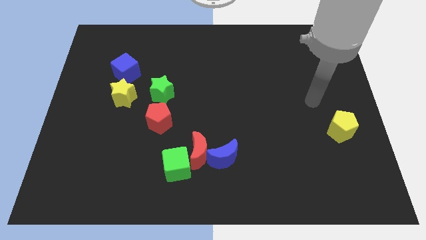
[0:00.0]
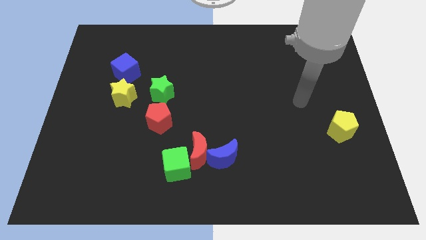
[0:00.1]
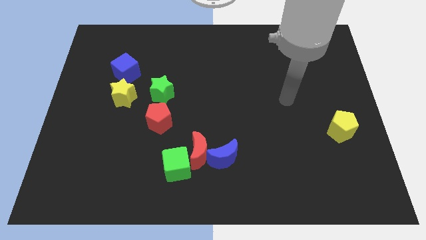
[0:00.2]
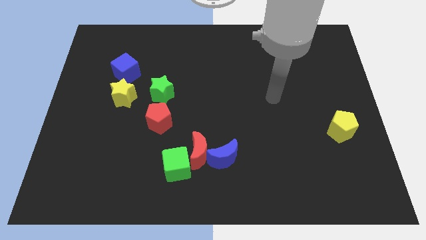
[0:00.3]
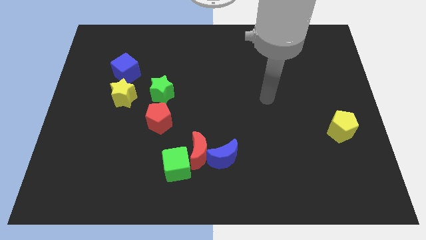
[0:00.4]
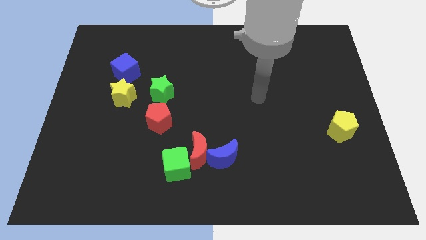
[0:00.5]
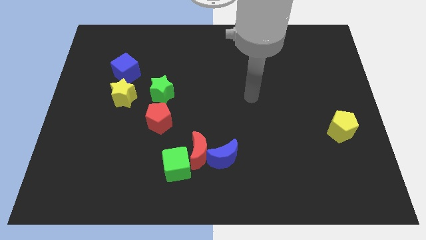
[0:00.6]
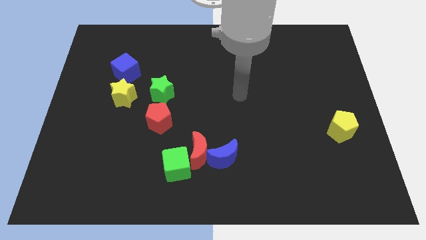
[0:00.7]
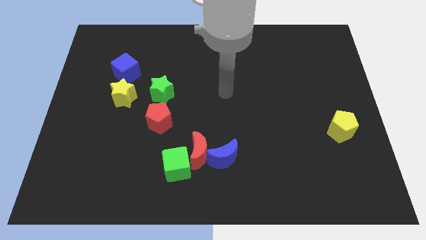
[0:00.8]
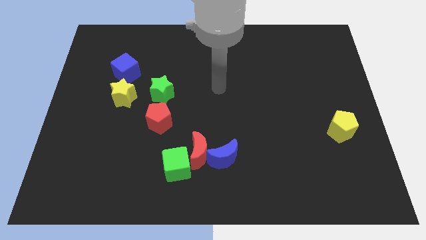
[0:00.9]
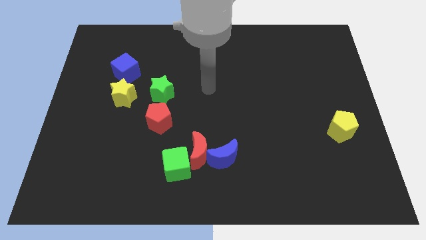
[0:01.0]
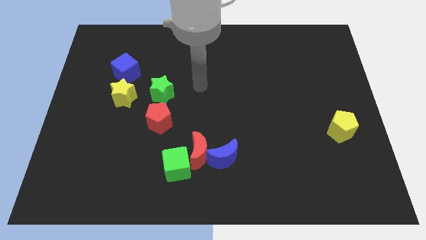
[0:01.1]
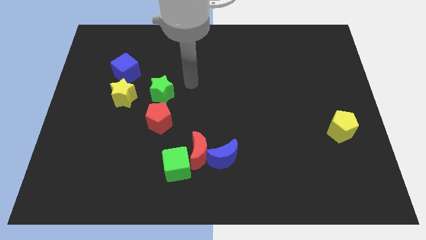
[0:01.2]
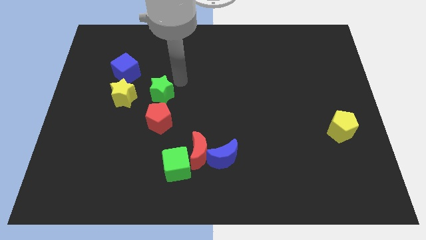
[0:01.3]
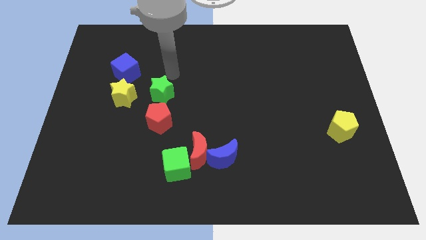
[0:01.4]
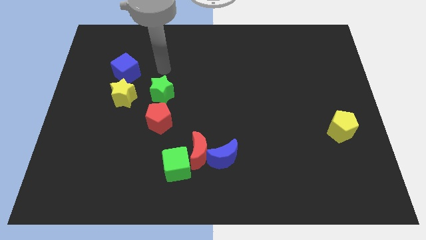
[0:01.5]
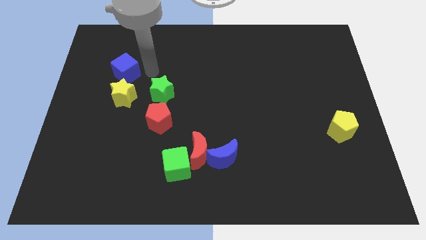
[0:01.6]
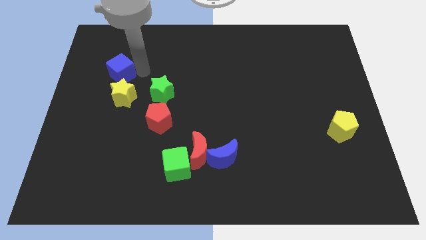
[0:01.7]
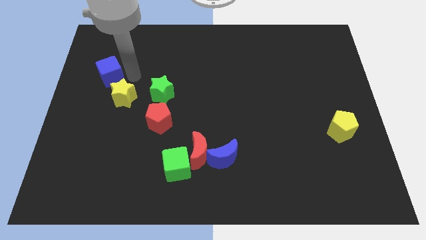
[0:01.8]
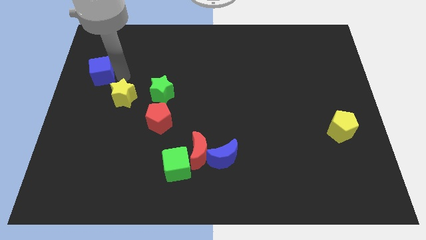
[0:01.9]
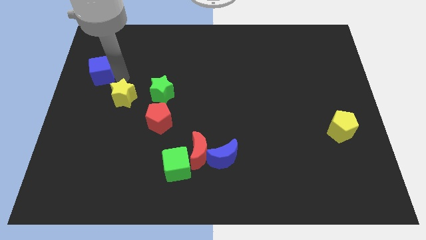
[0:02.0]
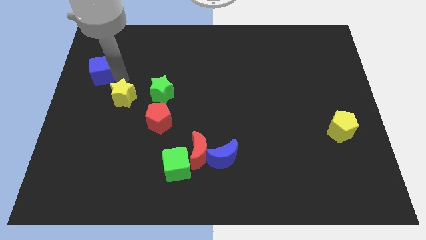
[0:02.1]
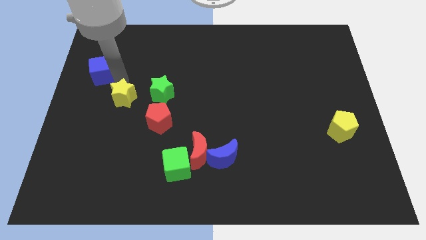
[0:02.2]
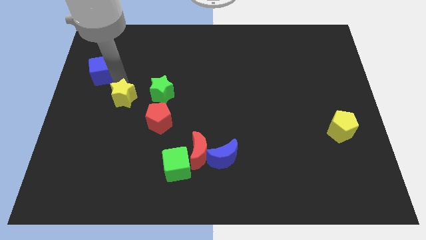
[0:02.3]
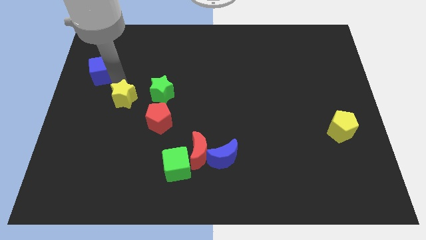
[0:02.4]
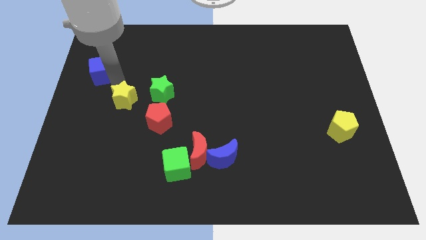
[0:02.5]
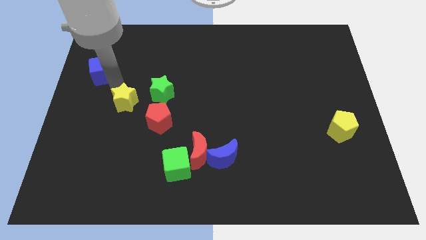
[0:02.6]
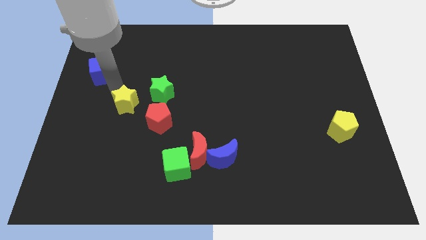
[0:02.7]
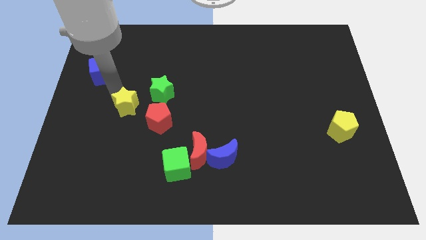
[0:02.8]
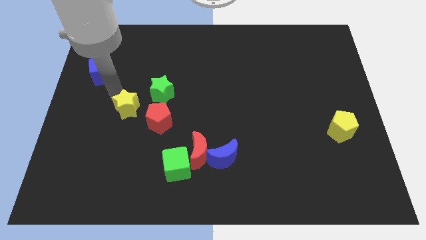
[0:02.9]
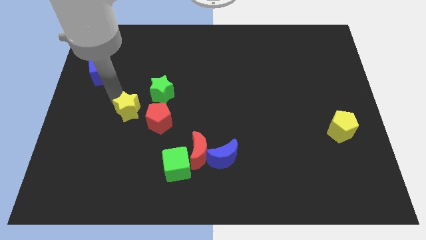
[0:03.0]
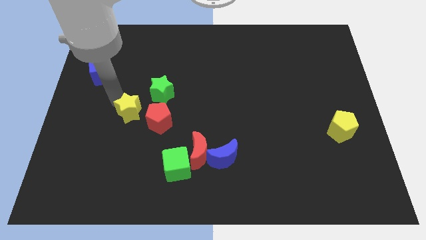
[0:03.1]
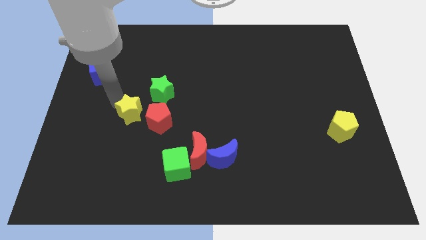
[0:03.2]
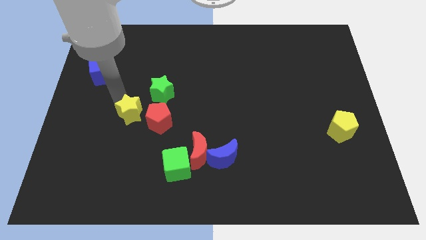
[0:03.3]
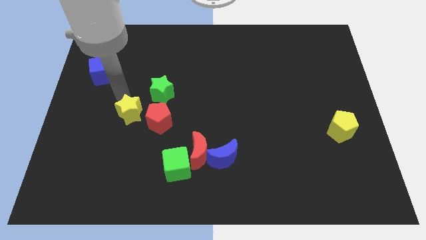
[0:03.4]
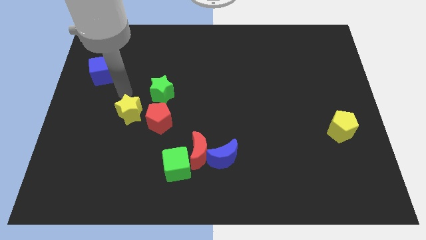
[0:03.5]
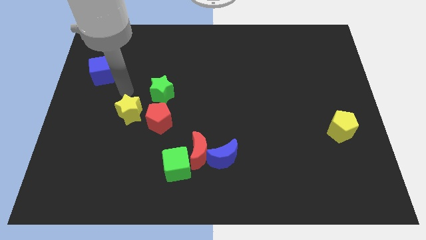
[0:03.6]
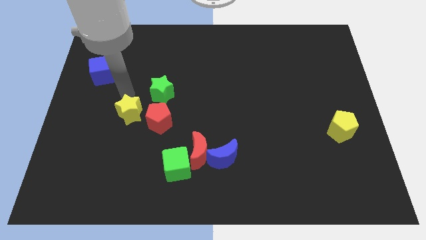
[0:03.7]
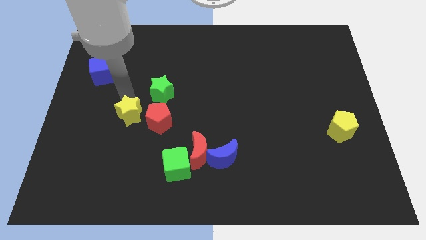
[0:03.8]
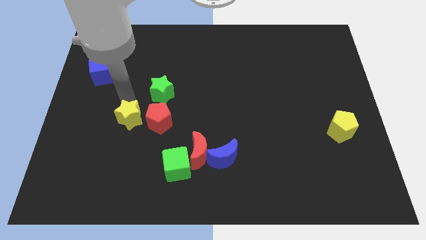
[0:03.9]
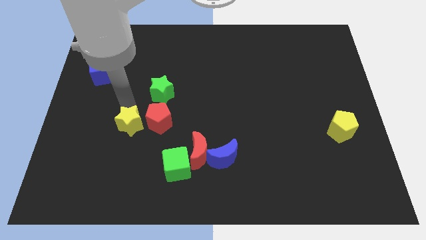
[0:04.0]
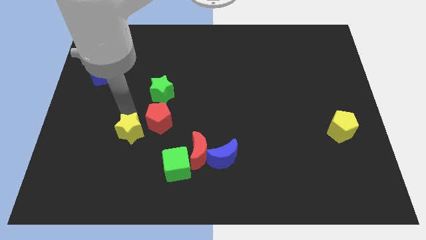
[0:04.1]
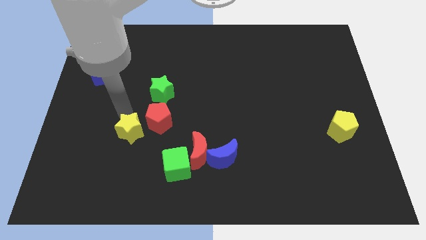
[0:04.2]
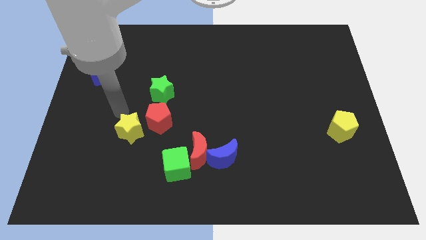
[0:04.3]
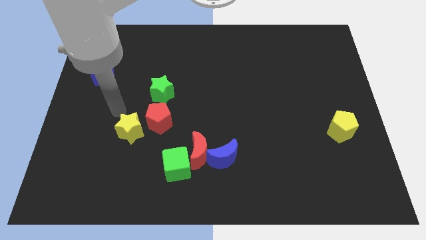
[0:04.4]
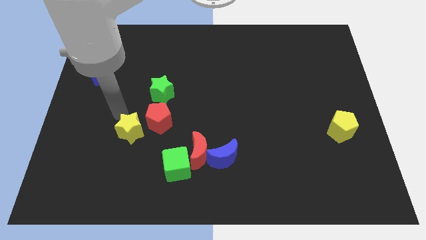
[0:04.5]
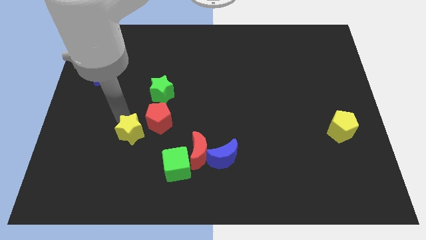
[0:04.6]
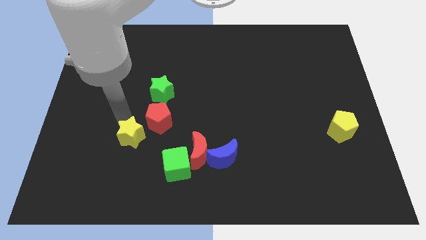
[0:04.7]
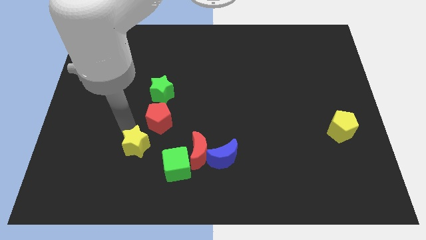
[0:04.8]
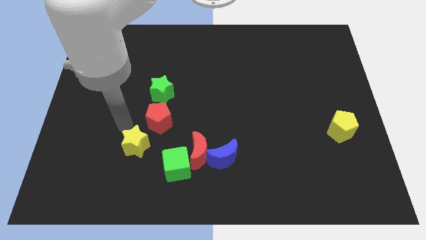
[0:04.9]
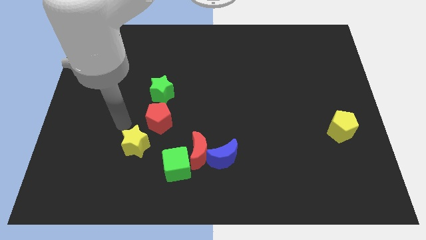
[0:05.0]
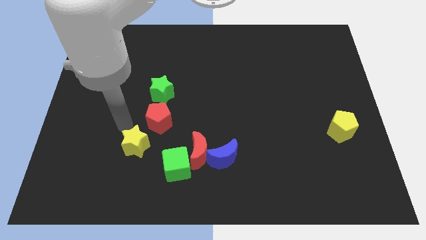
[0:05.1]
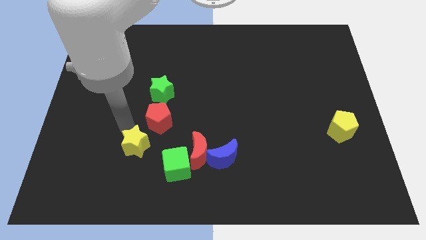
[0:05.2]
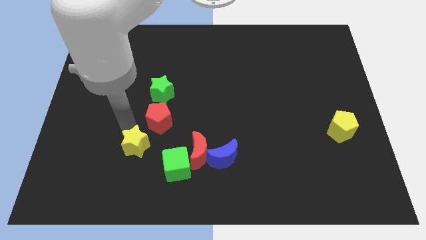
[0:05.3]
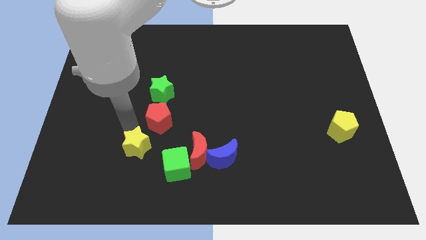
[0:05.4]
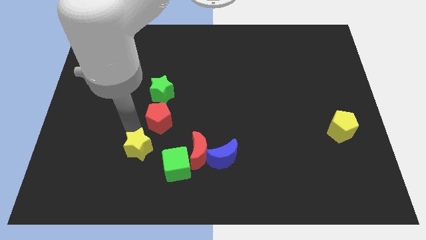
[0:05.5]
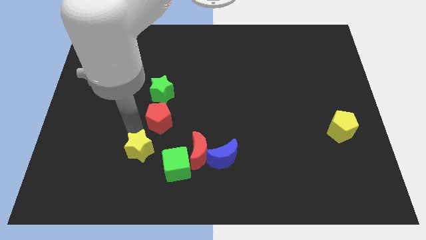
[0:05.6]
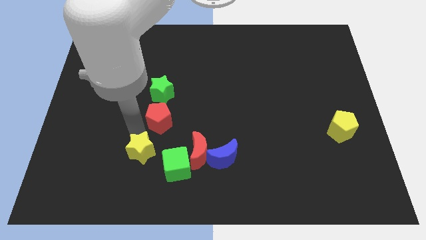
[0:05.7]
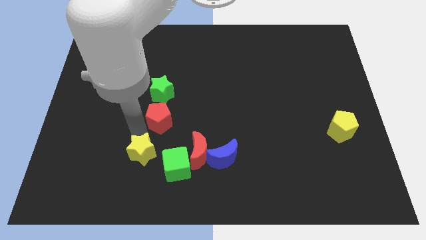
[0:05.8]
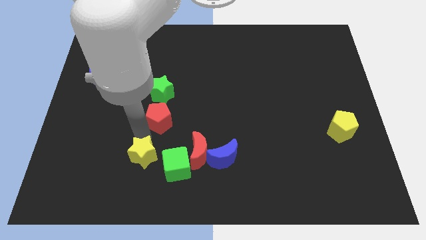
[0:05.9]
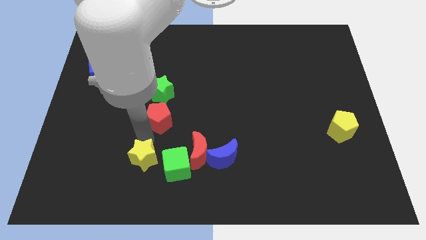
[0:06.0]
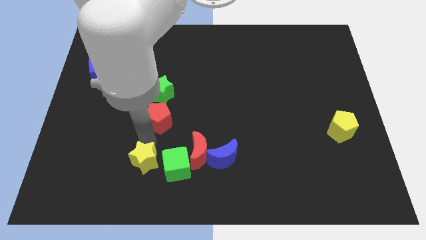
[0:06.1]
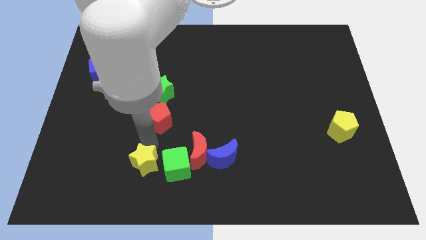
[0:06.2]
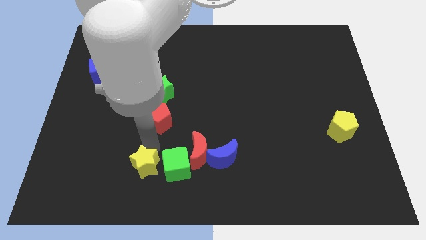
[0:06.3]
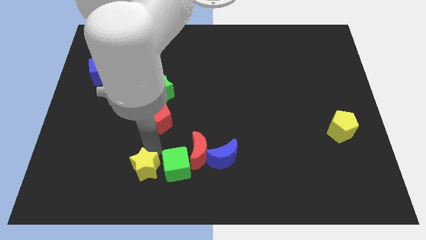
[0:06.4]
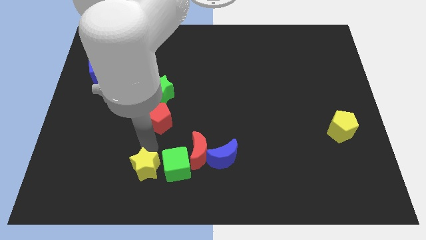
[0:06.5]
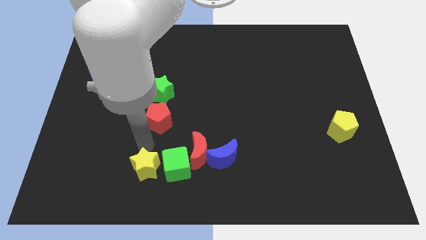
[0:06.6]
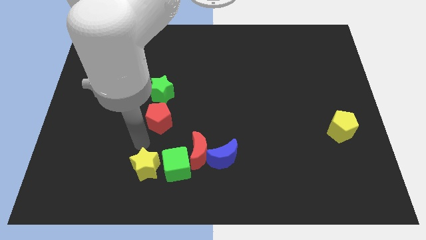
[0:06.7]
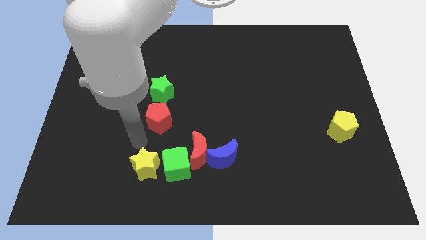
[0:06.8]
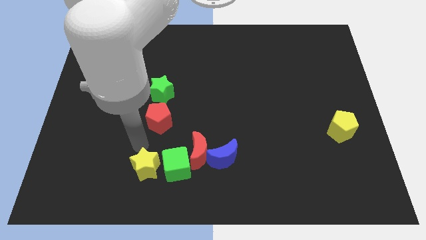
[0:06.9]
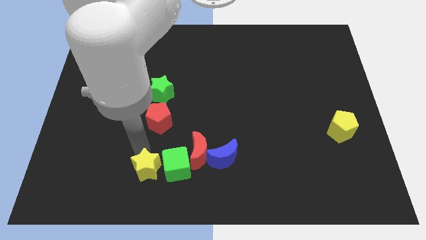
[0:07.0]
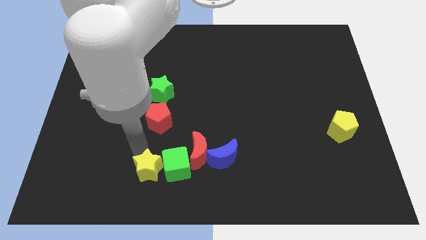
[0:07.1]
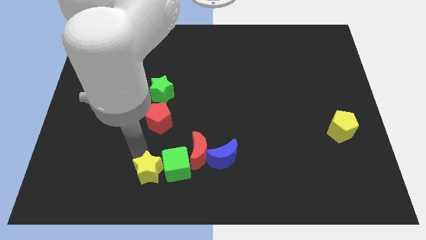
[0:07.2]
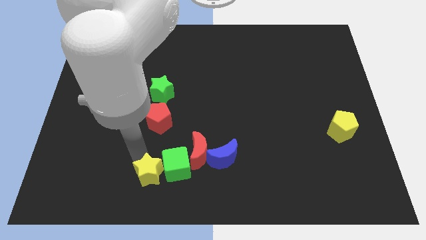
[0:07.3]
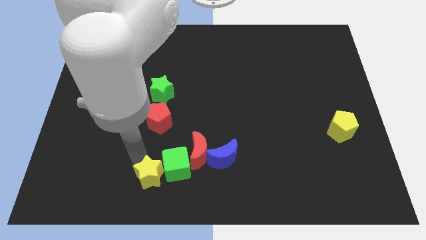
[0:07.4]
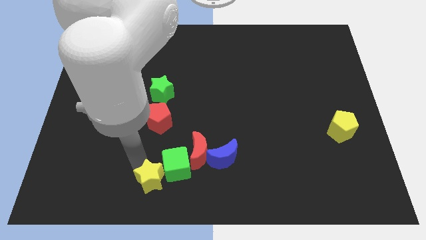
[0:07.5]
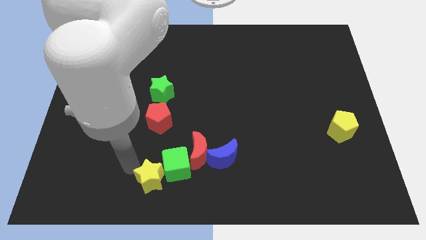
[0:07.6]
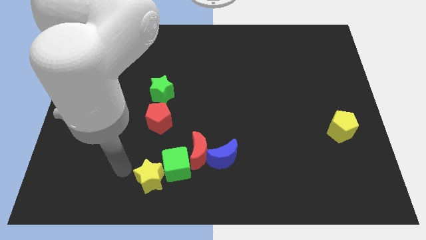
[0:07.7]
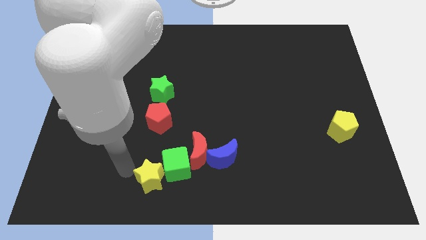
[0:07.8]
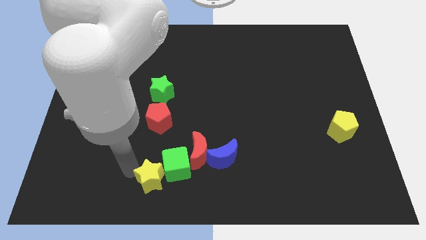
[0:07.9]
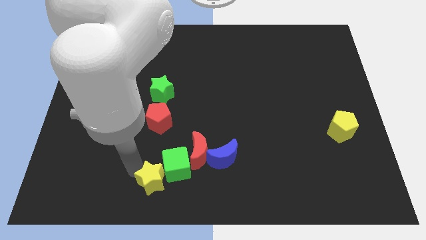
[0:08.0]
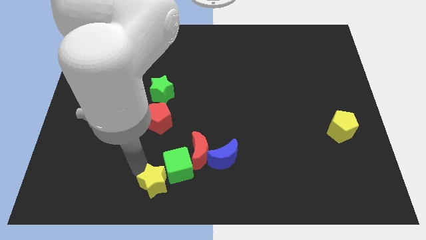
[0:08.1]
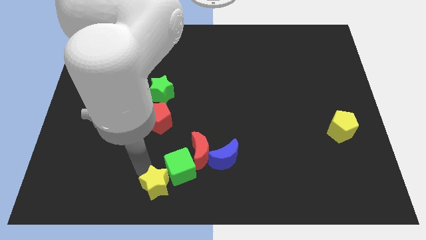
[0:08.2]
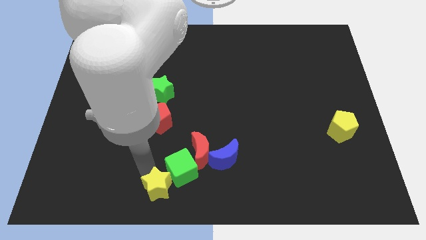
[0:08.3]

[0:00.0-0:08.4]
move the yellow star diagonally downwards and to the right
